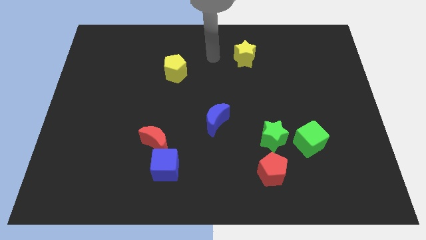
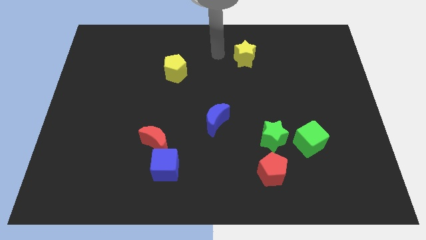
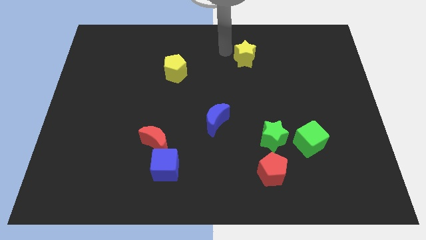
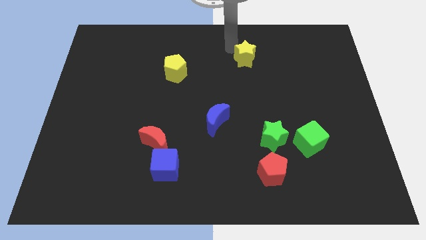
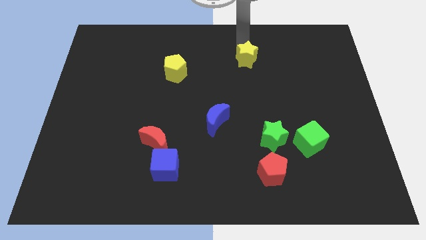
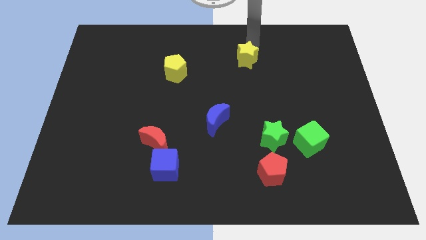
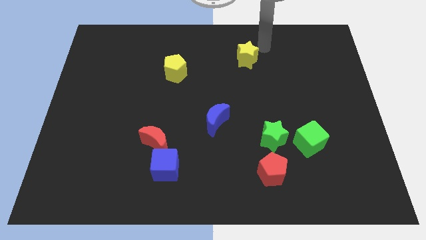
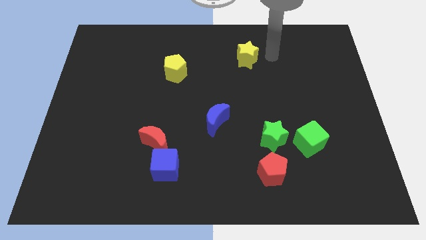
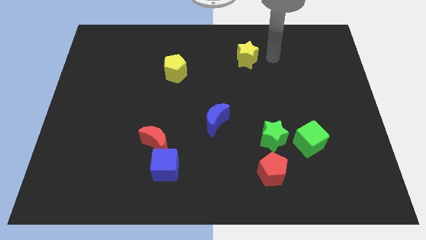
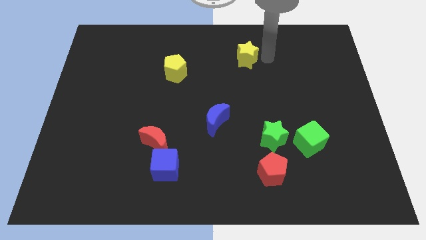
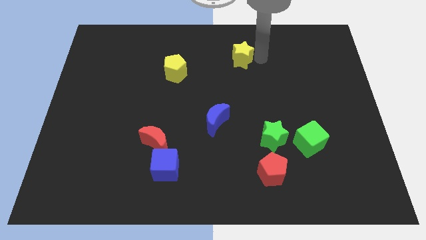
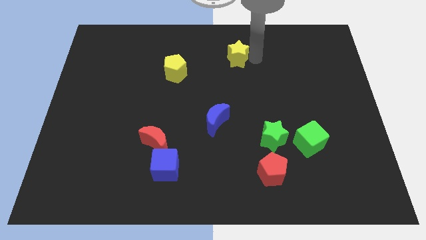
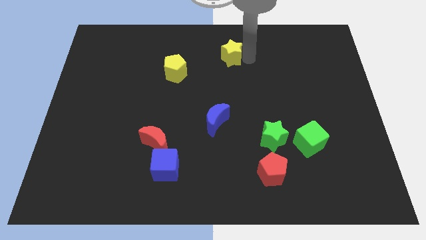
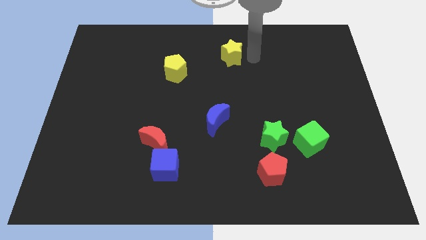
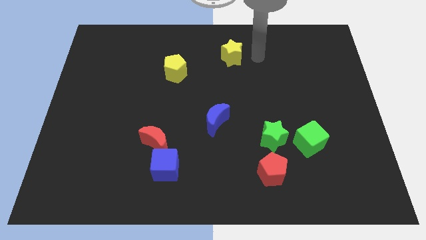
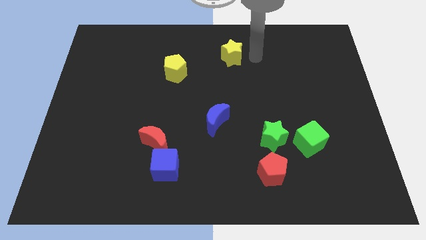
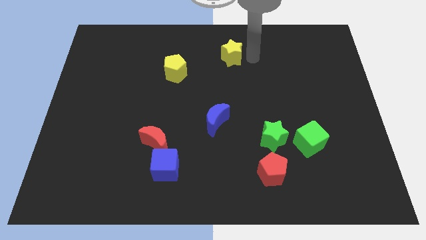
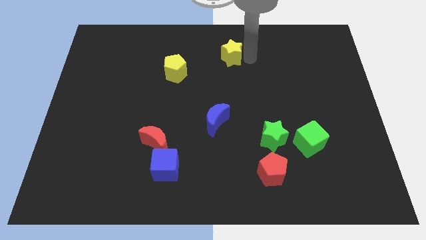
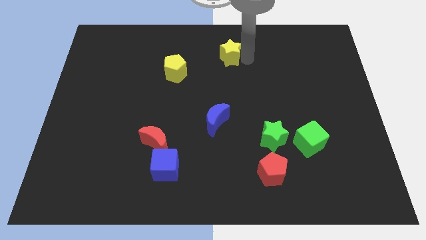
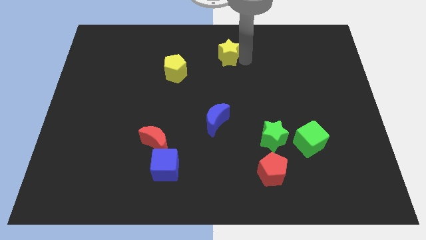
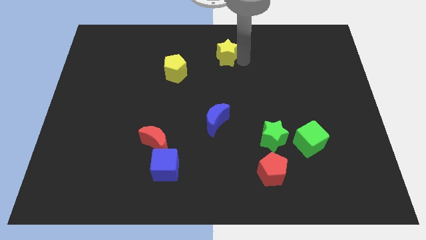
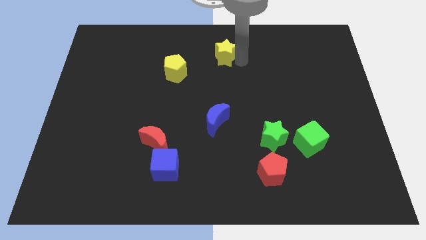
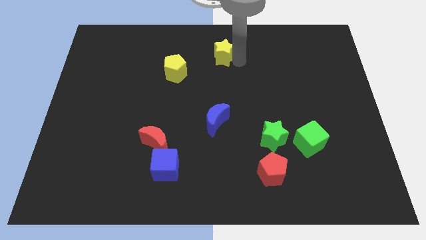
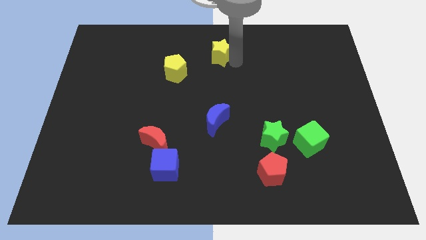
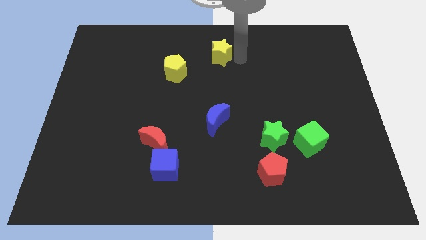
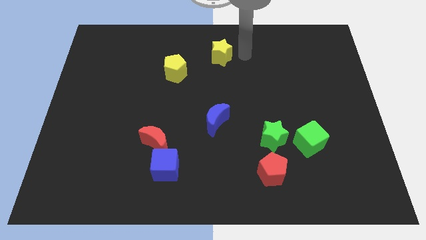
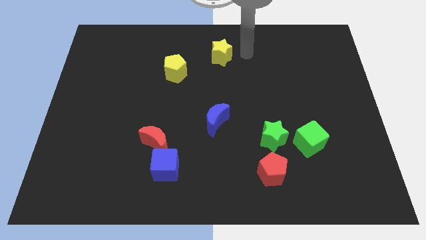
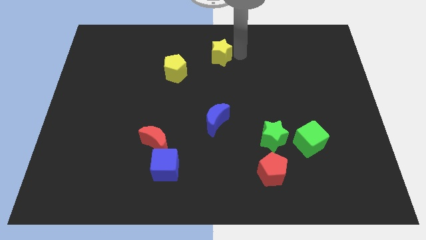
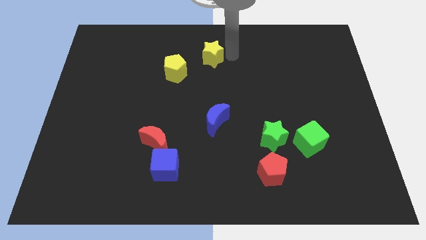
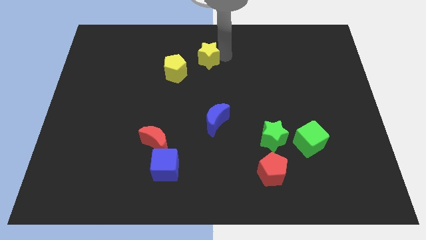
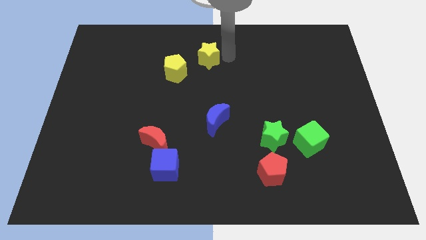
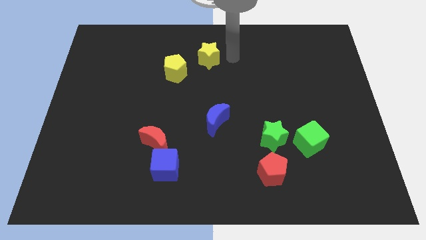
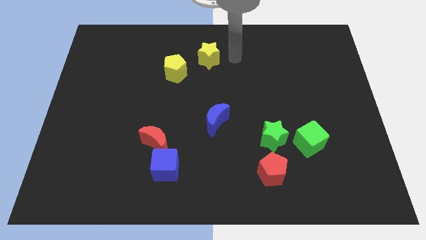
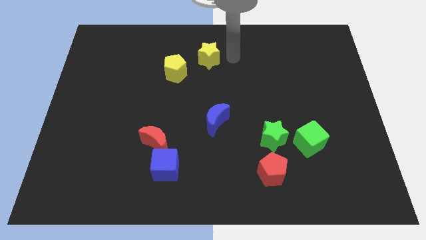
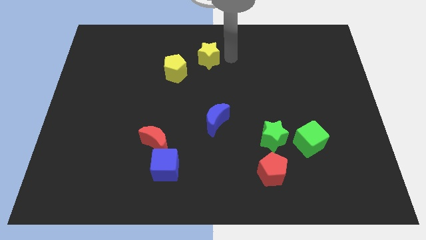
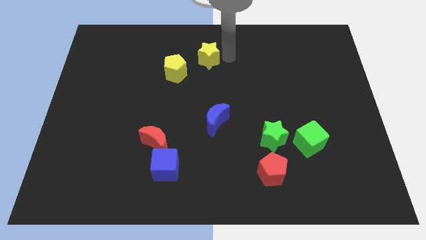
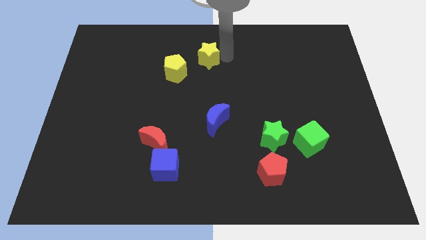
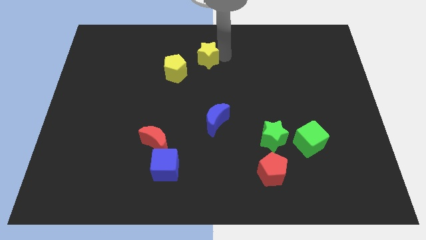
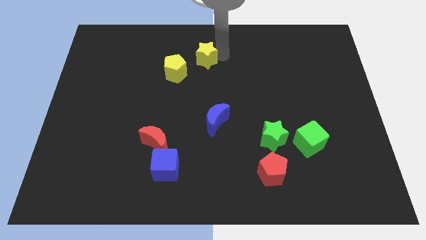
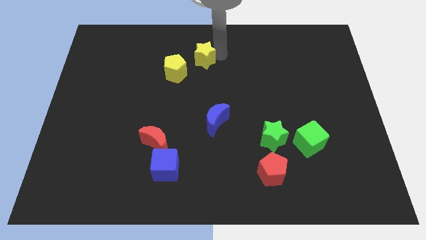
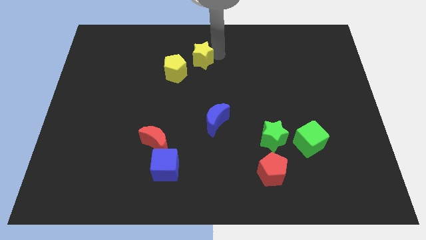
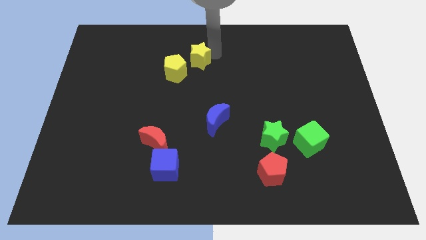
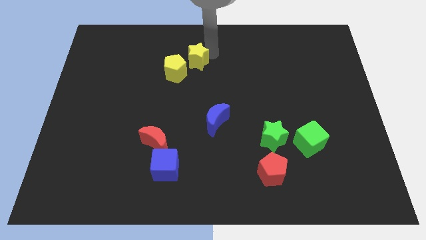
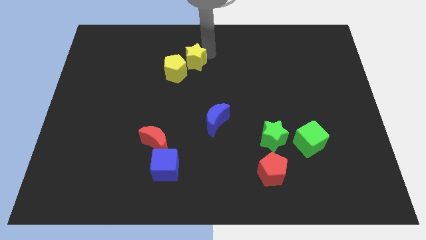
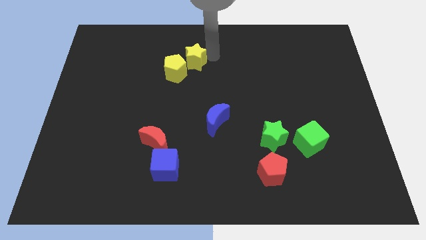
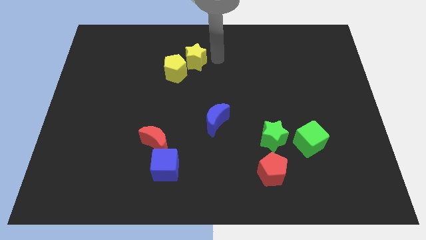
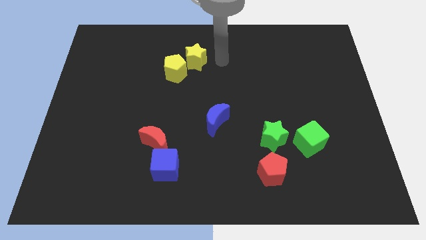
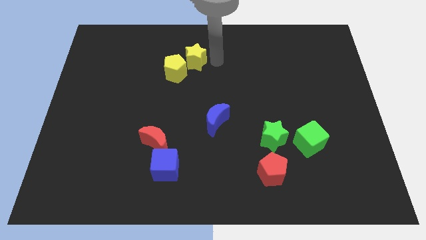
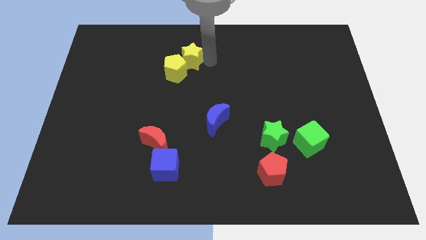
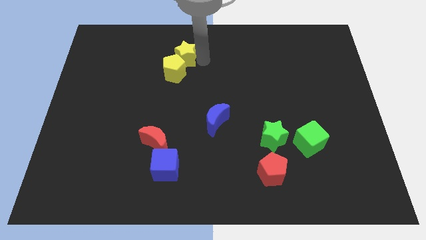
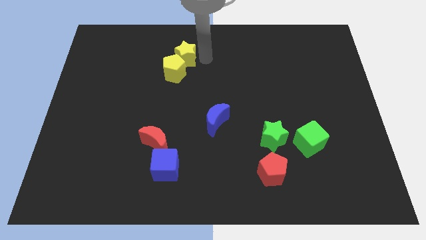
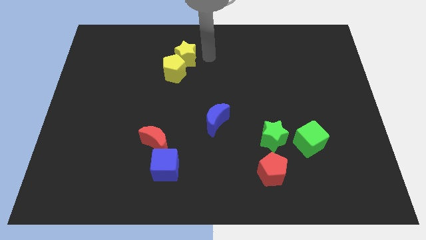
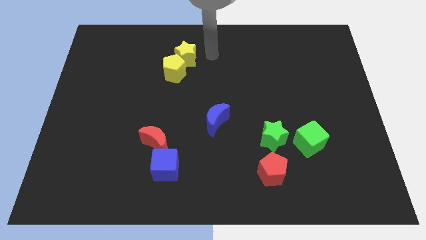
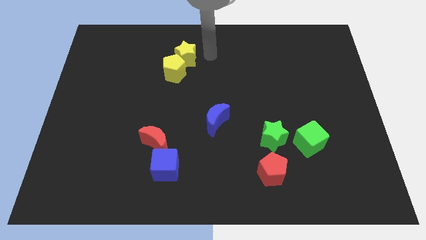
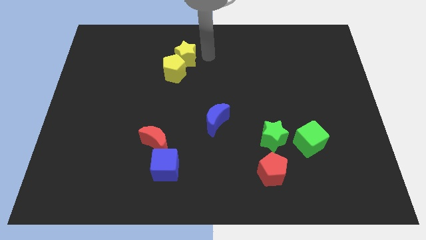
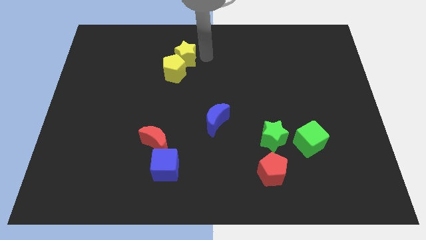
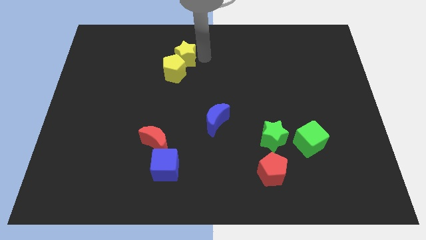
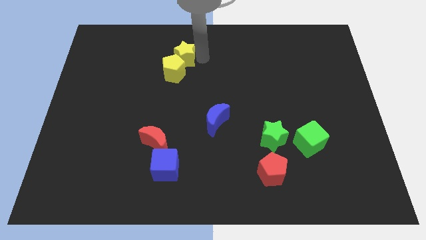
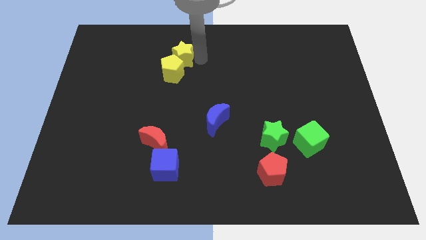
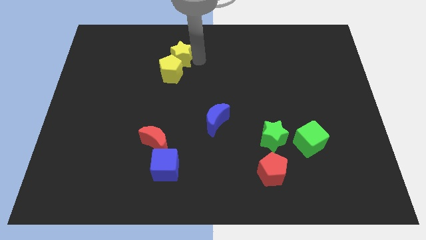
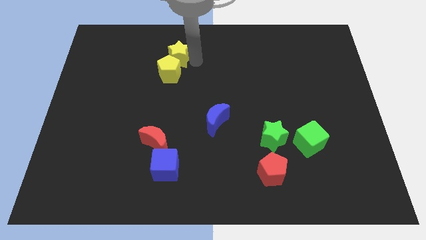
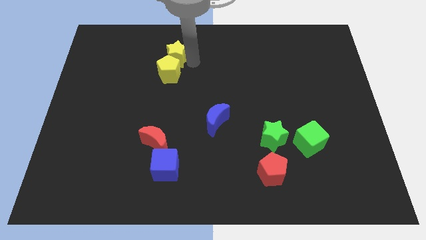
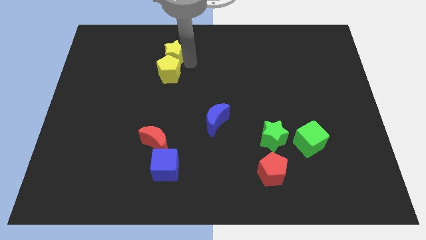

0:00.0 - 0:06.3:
push the yellow star to the top left side of the yellow pentagon

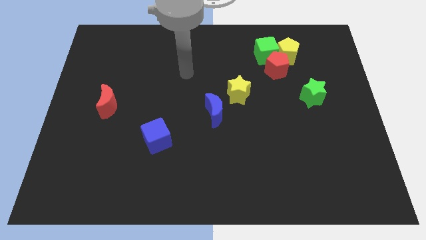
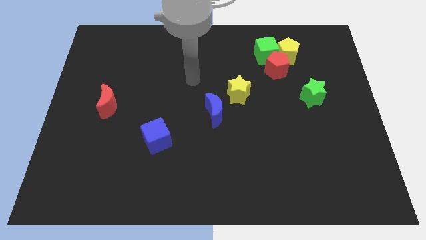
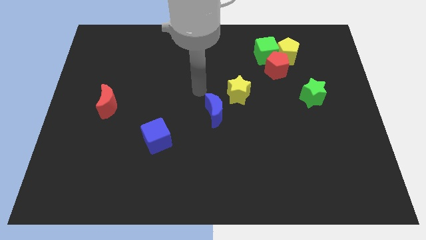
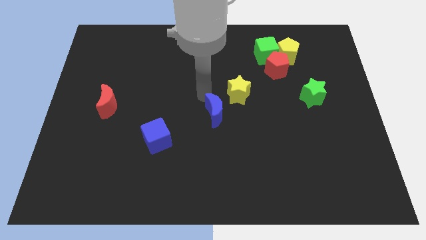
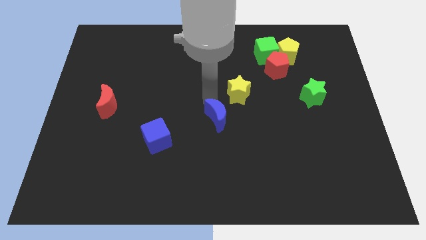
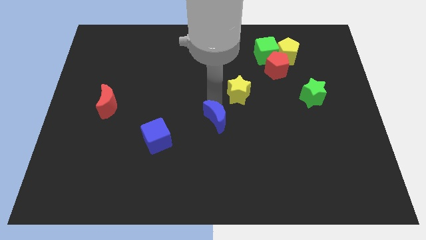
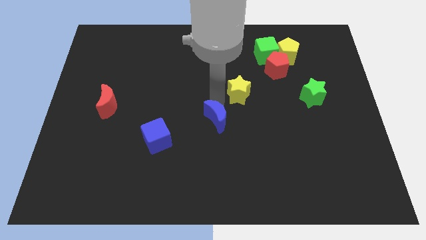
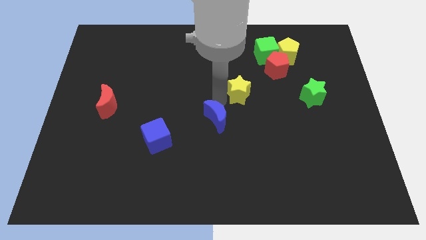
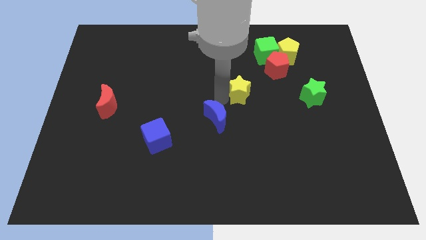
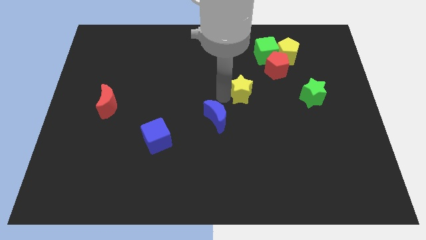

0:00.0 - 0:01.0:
put the yellow star to the bottom left side of the red pentagon
